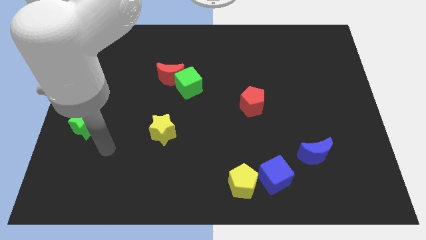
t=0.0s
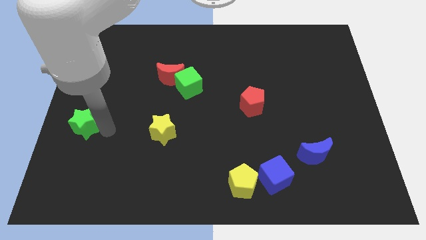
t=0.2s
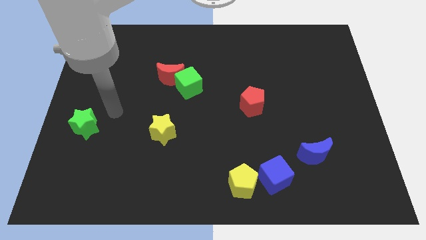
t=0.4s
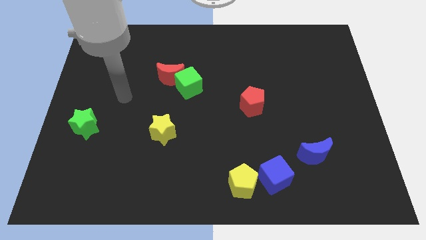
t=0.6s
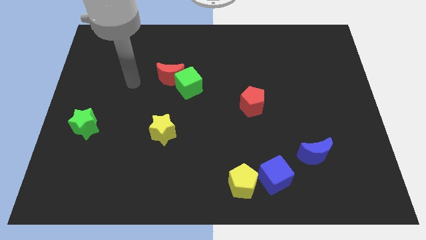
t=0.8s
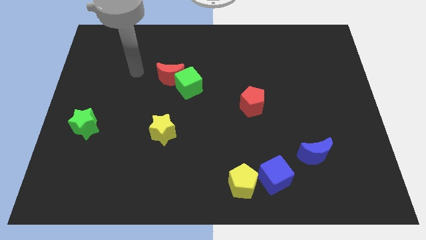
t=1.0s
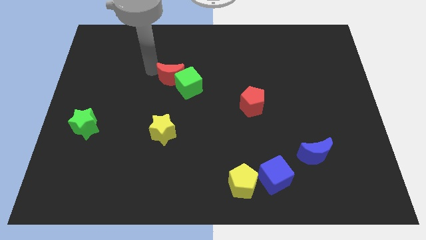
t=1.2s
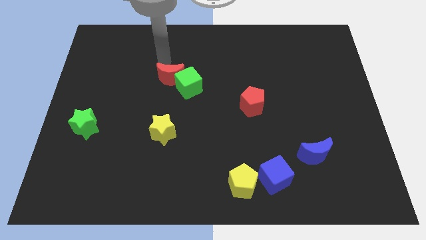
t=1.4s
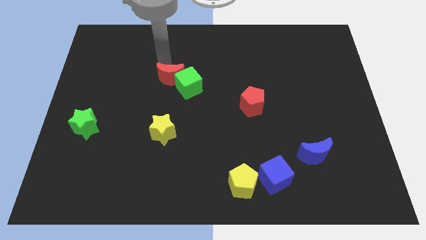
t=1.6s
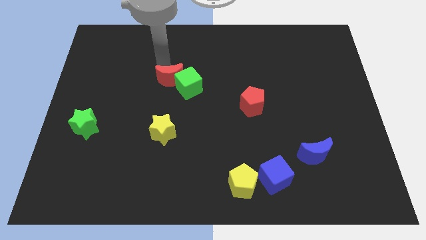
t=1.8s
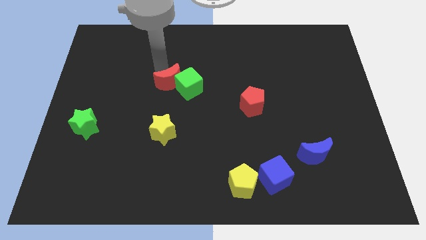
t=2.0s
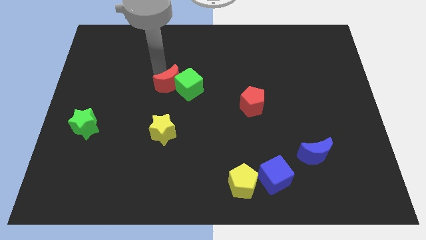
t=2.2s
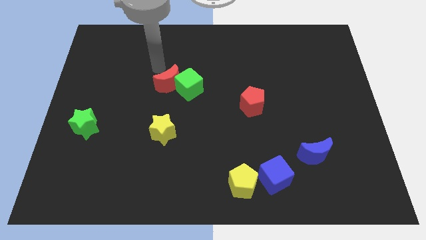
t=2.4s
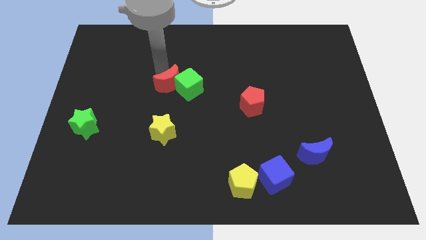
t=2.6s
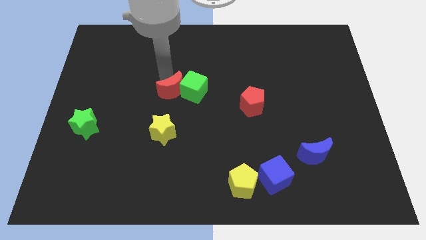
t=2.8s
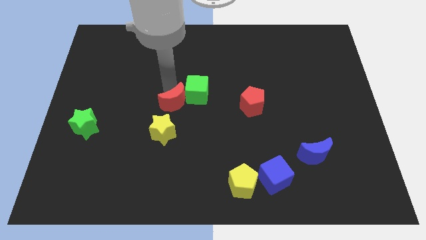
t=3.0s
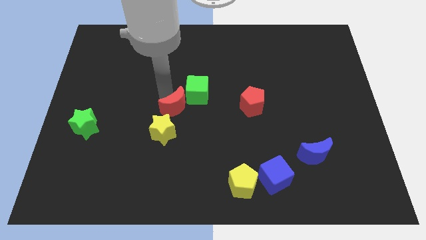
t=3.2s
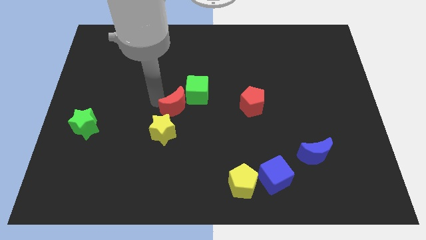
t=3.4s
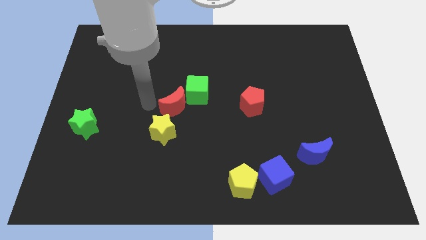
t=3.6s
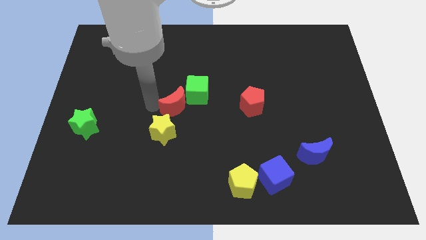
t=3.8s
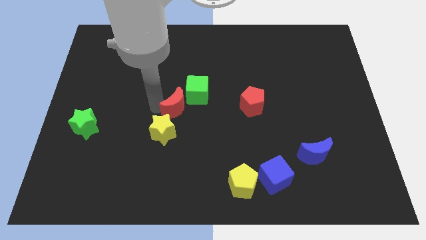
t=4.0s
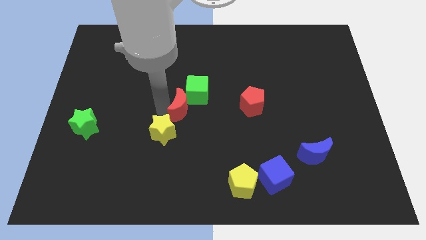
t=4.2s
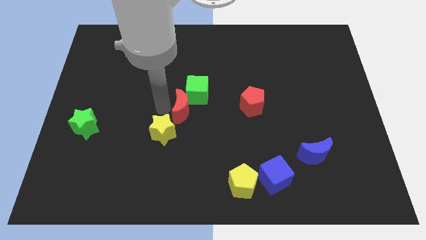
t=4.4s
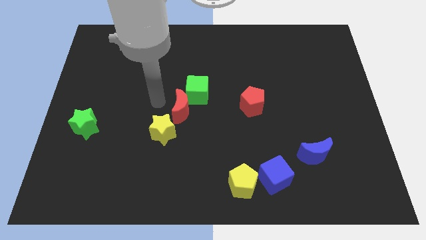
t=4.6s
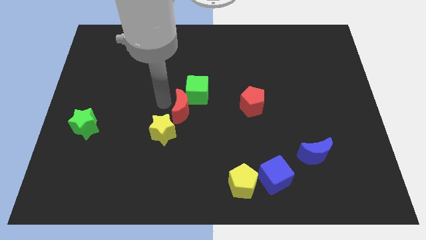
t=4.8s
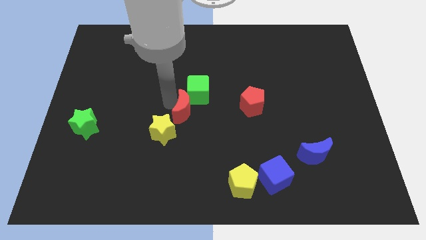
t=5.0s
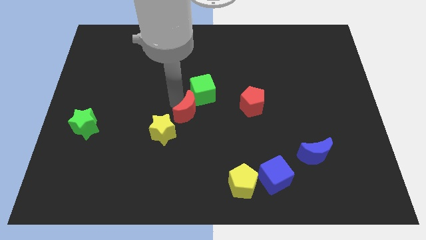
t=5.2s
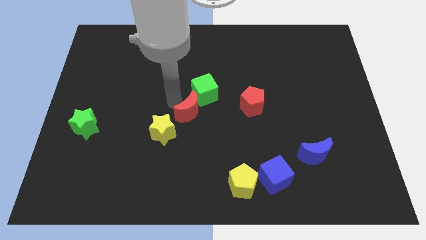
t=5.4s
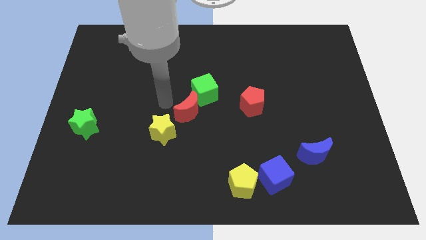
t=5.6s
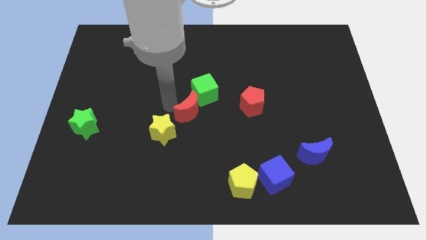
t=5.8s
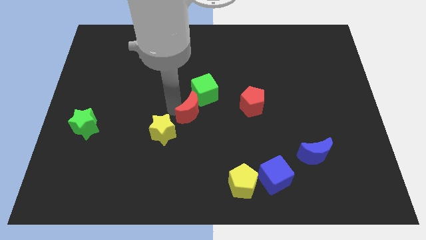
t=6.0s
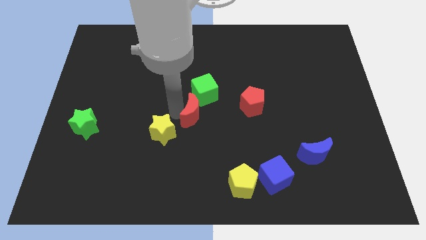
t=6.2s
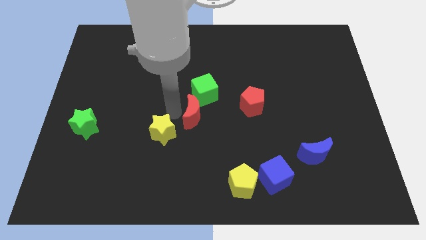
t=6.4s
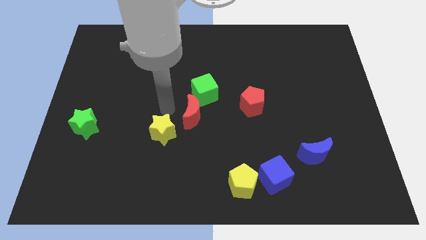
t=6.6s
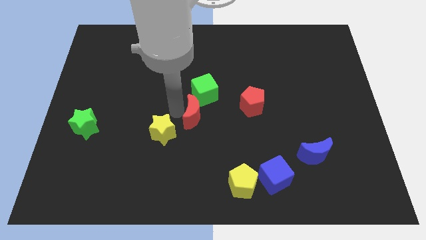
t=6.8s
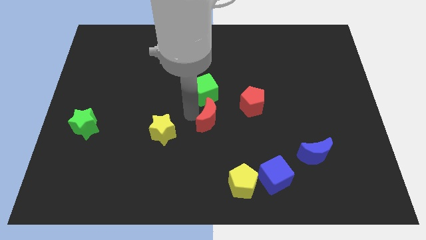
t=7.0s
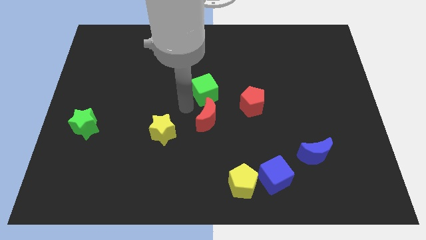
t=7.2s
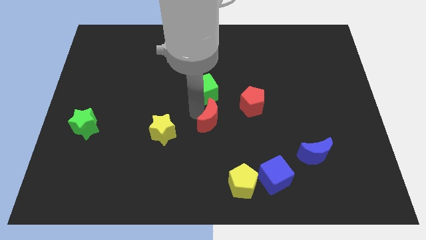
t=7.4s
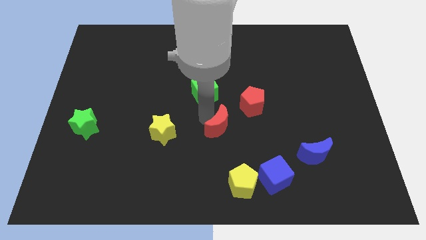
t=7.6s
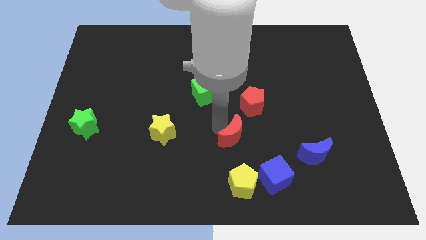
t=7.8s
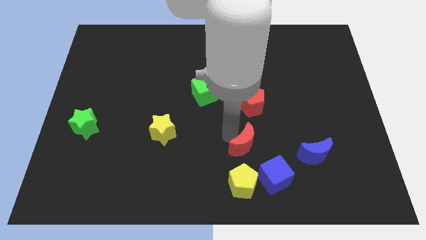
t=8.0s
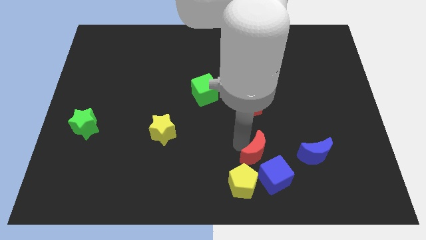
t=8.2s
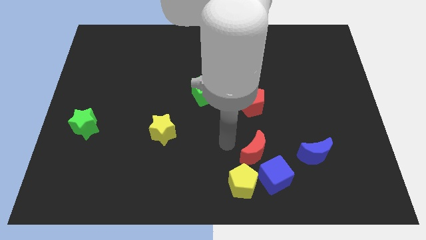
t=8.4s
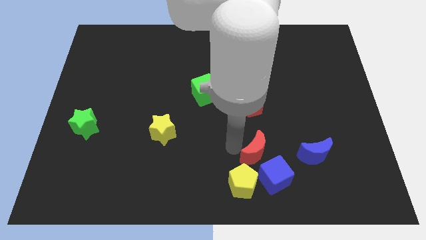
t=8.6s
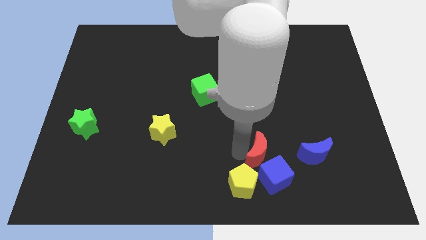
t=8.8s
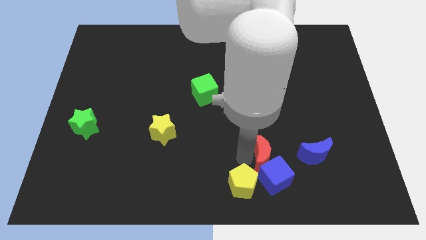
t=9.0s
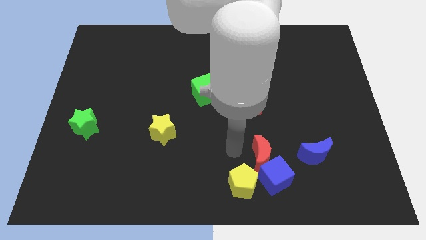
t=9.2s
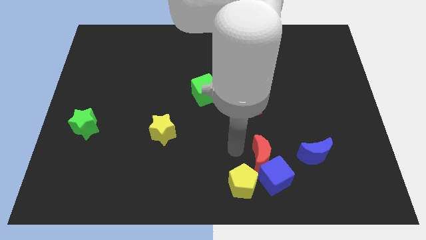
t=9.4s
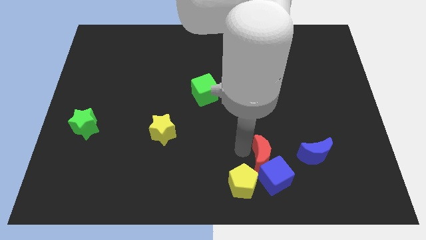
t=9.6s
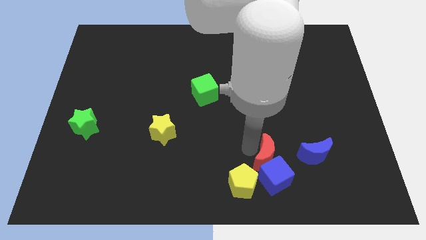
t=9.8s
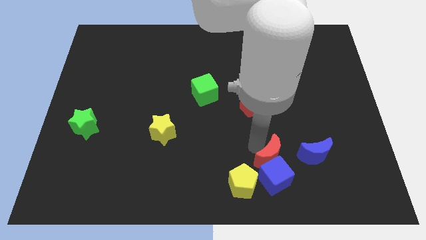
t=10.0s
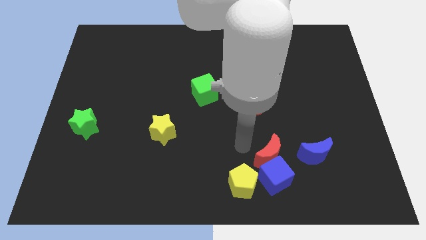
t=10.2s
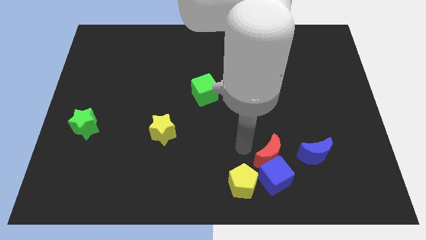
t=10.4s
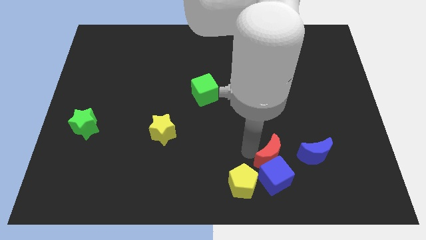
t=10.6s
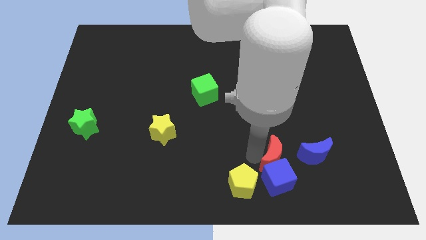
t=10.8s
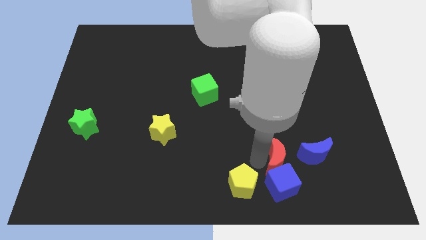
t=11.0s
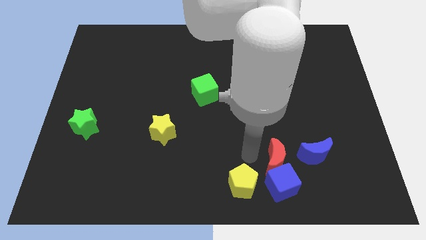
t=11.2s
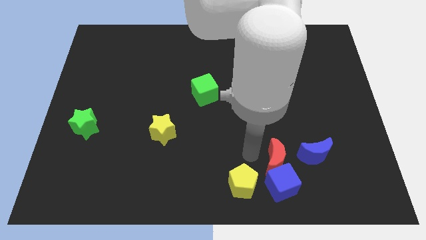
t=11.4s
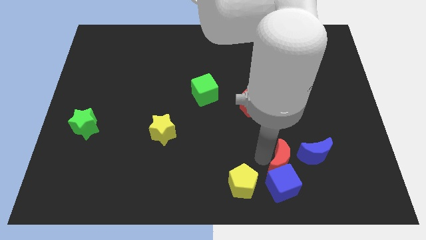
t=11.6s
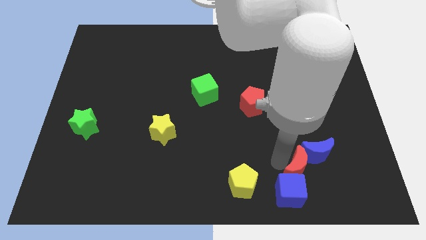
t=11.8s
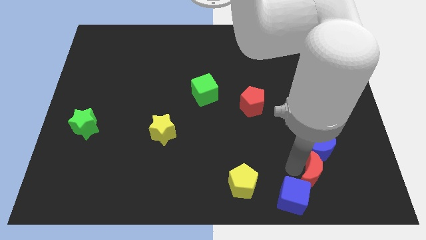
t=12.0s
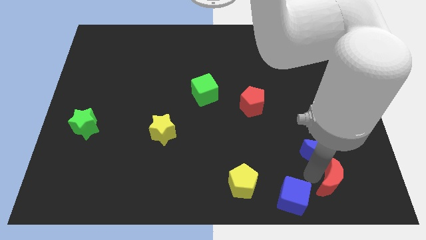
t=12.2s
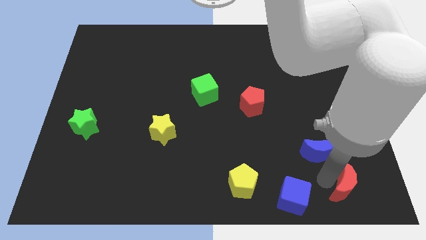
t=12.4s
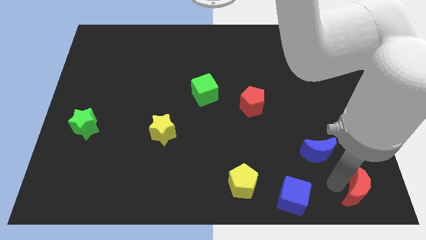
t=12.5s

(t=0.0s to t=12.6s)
slide the red moon to the bottom right of the board
